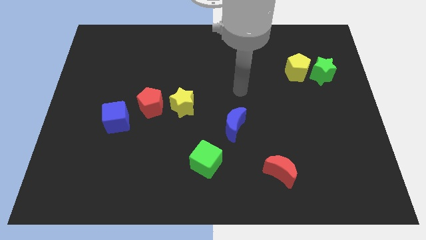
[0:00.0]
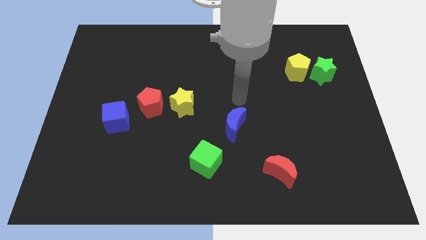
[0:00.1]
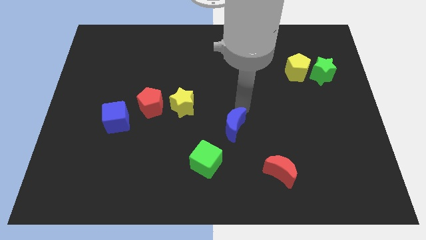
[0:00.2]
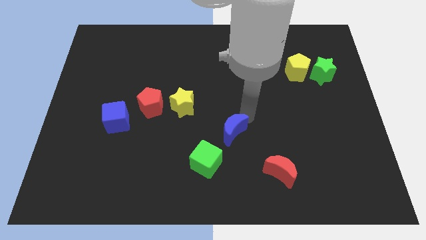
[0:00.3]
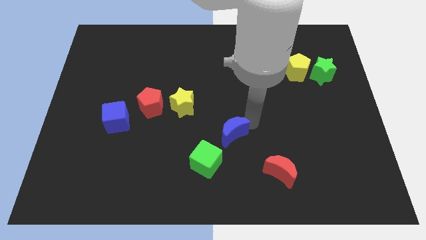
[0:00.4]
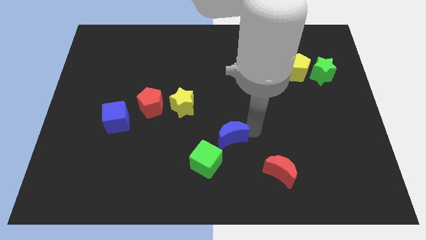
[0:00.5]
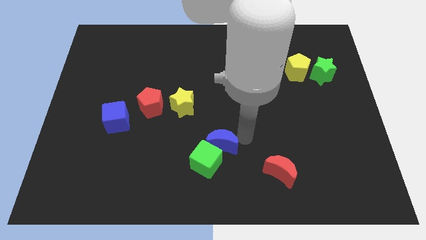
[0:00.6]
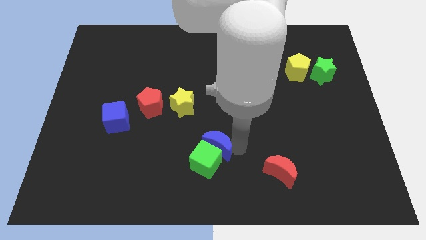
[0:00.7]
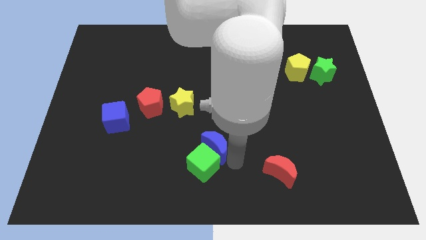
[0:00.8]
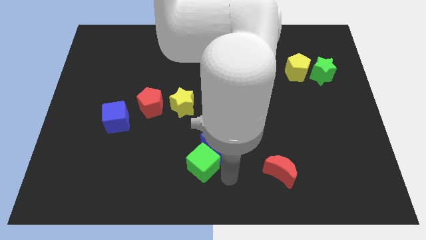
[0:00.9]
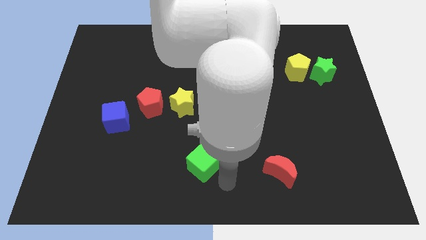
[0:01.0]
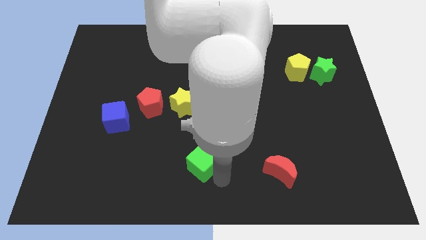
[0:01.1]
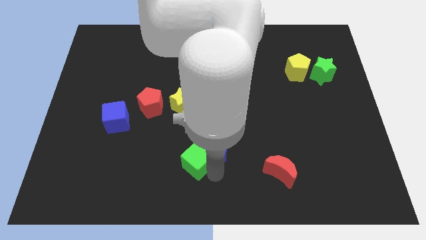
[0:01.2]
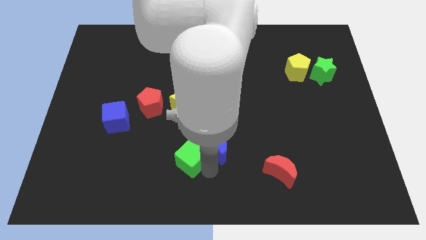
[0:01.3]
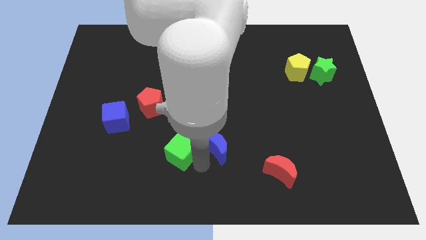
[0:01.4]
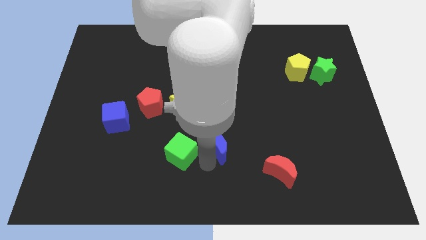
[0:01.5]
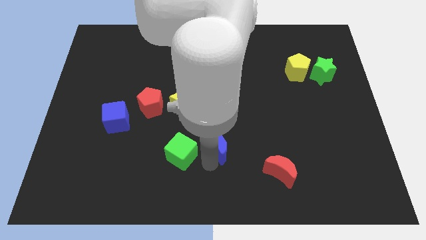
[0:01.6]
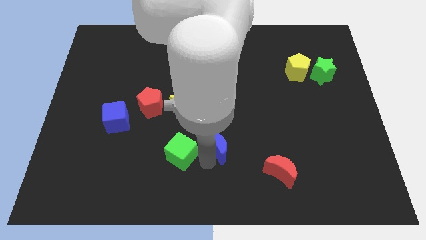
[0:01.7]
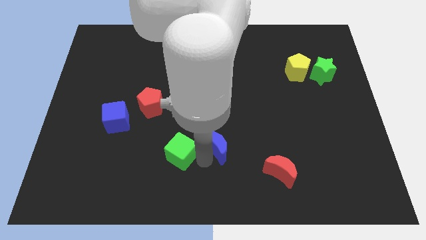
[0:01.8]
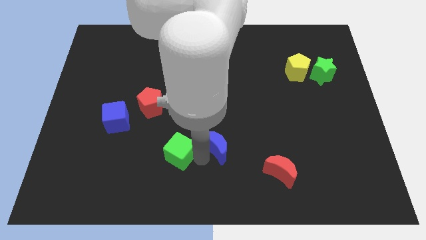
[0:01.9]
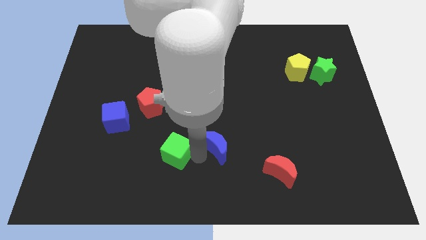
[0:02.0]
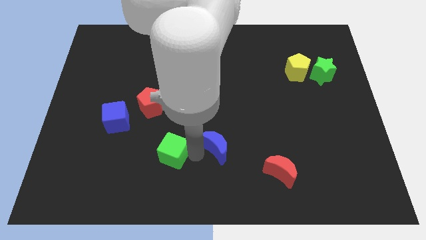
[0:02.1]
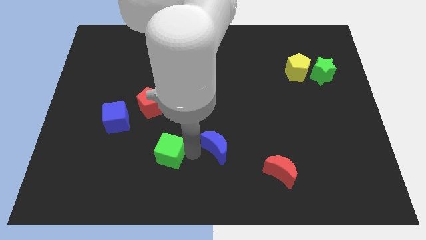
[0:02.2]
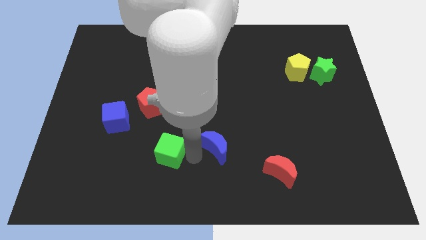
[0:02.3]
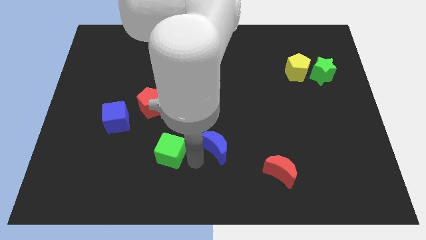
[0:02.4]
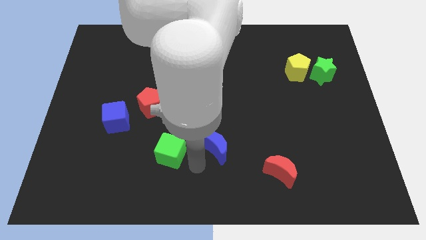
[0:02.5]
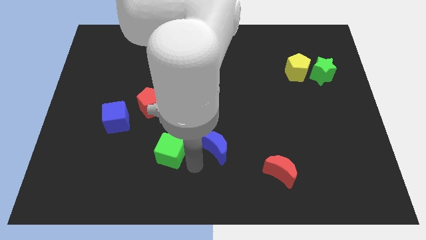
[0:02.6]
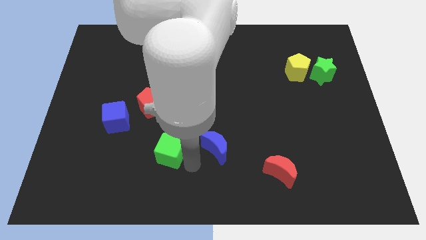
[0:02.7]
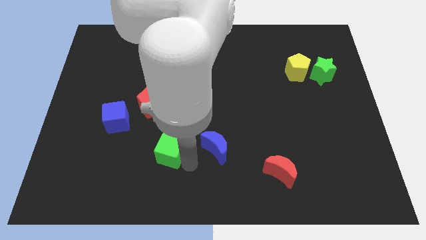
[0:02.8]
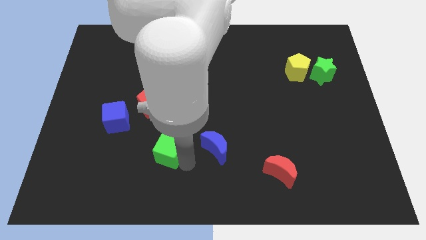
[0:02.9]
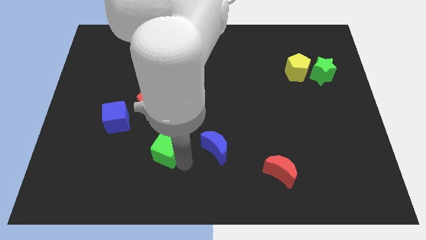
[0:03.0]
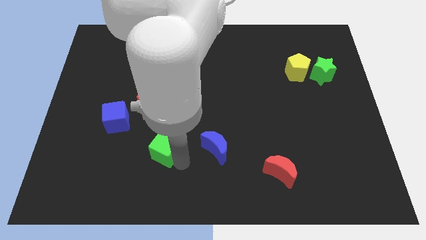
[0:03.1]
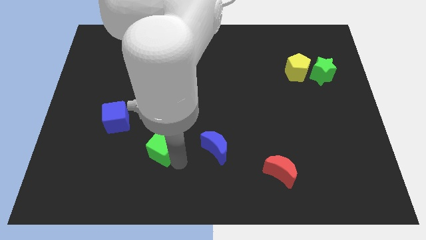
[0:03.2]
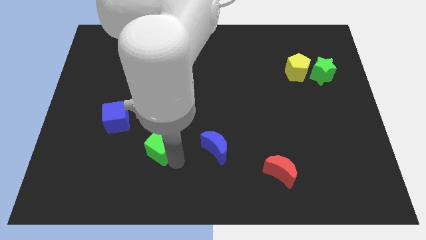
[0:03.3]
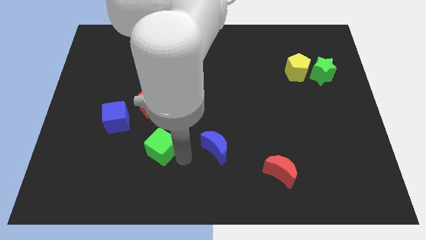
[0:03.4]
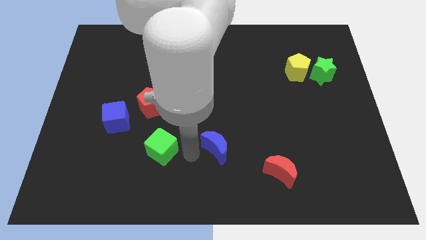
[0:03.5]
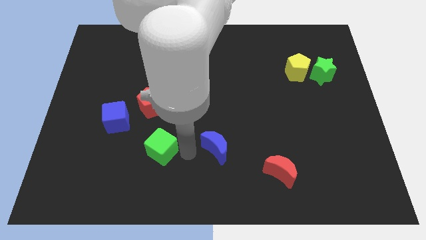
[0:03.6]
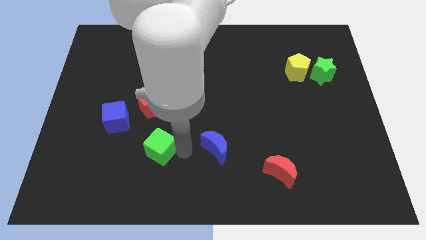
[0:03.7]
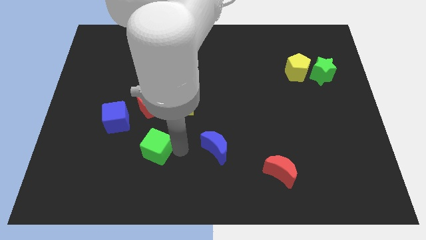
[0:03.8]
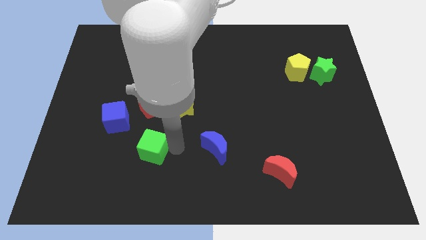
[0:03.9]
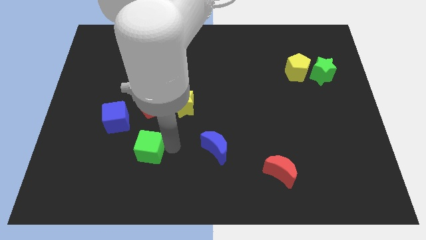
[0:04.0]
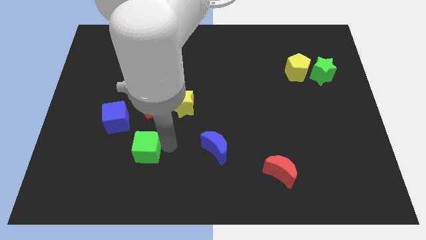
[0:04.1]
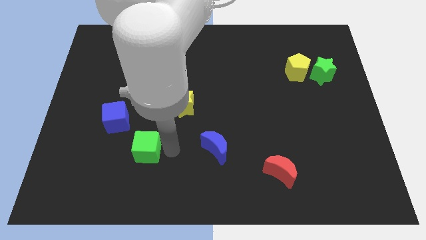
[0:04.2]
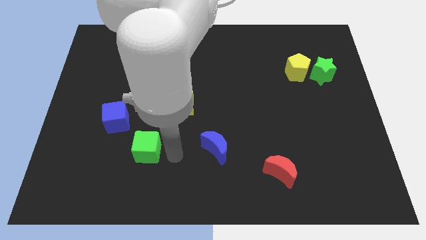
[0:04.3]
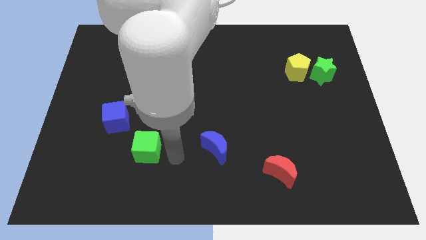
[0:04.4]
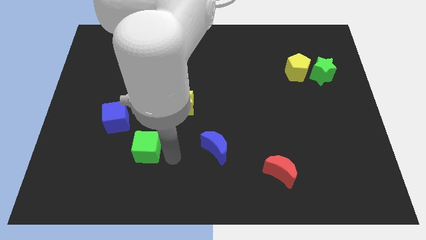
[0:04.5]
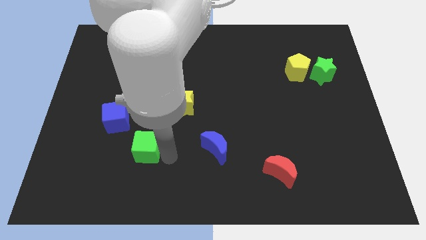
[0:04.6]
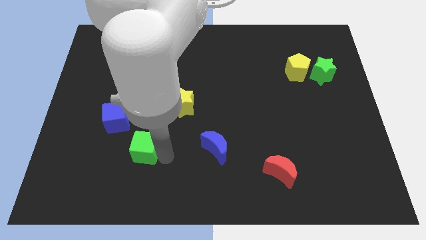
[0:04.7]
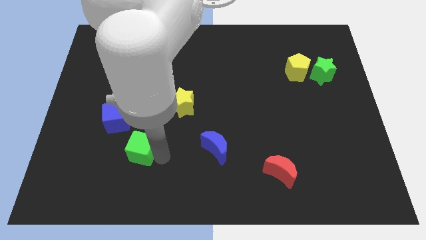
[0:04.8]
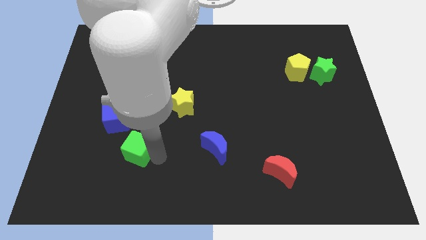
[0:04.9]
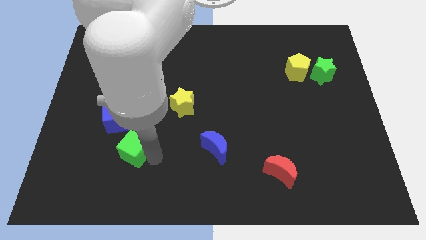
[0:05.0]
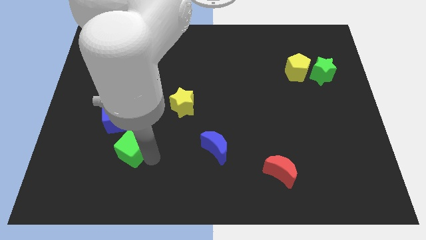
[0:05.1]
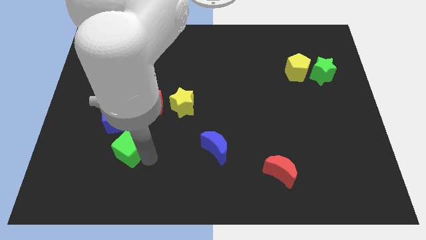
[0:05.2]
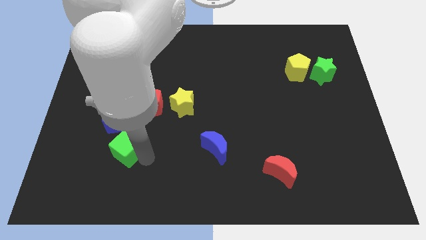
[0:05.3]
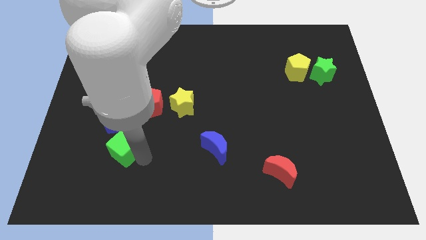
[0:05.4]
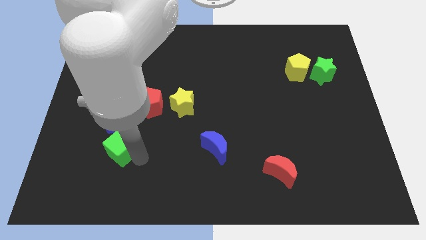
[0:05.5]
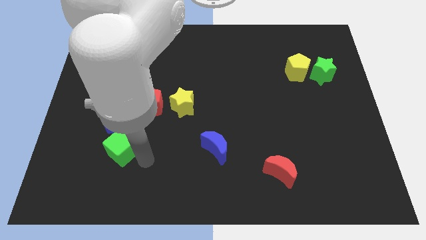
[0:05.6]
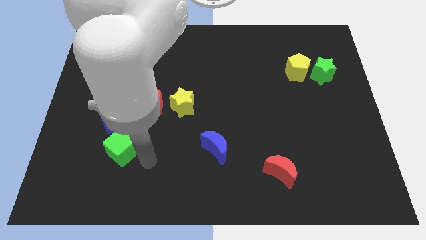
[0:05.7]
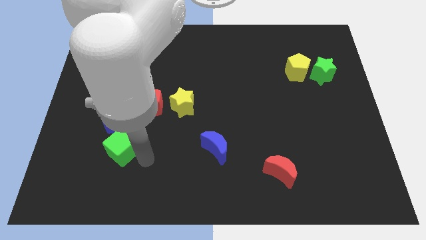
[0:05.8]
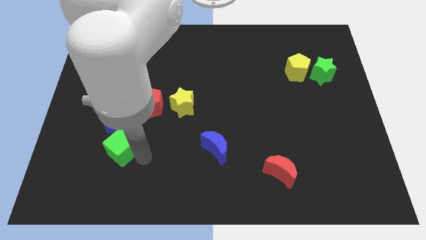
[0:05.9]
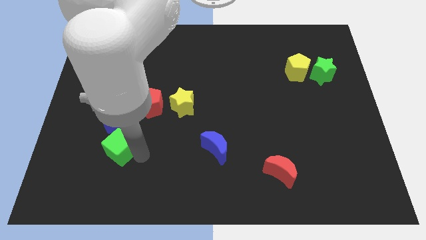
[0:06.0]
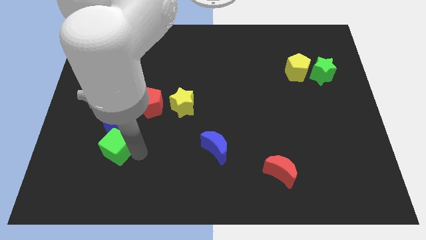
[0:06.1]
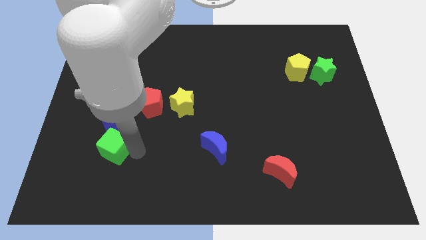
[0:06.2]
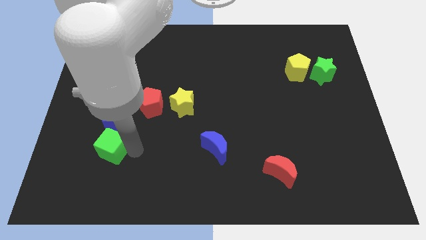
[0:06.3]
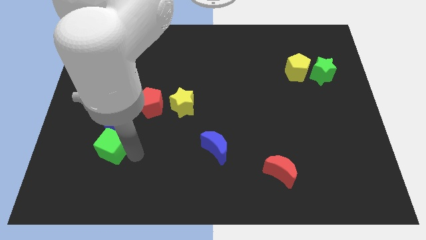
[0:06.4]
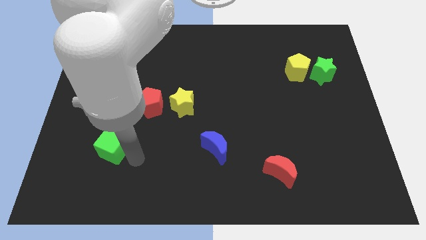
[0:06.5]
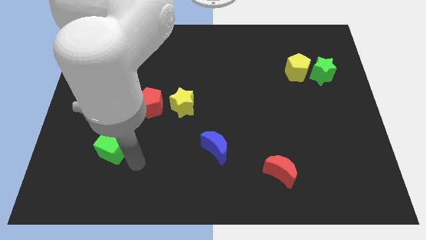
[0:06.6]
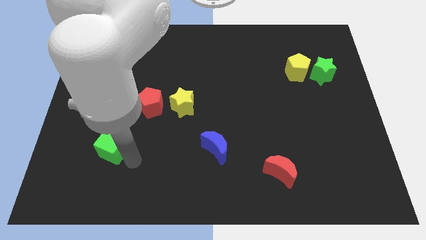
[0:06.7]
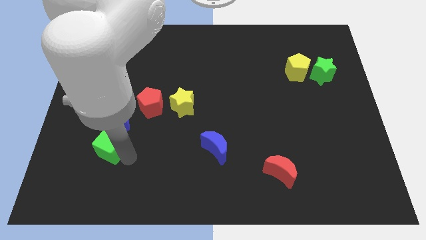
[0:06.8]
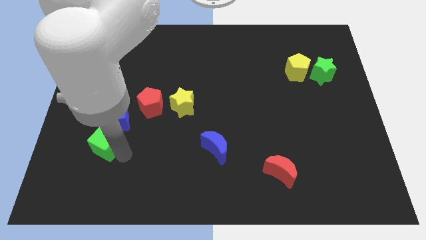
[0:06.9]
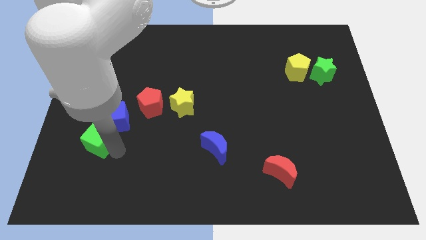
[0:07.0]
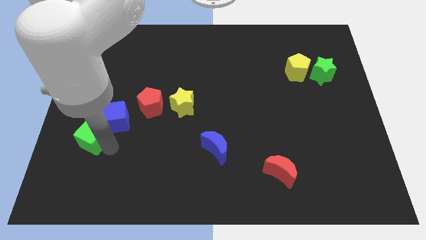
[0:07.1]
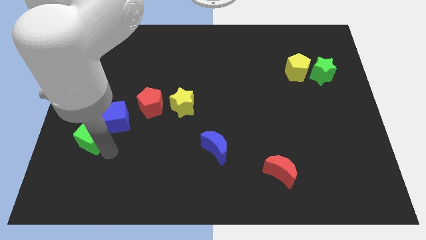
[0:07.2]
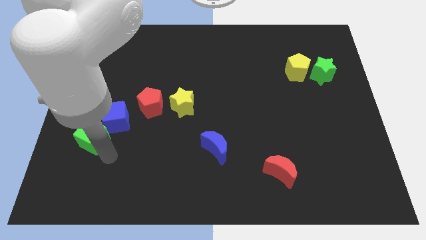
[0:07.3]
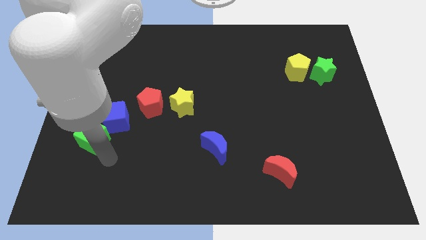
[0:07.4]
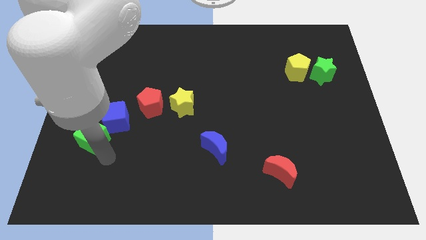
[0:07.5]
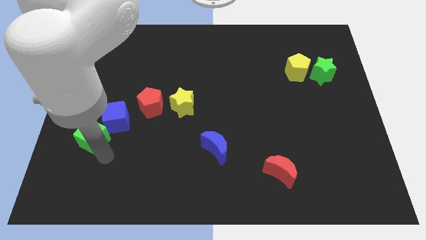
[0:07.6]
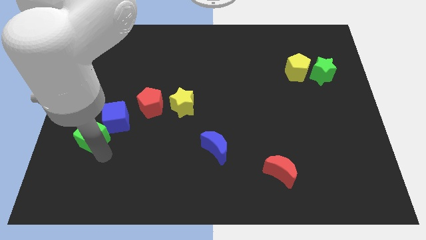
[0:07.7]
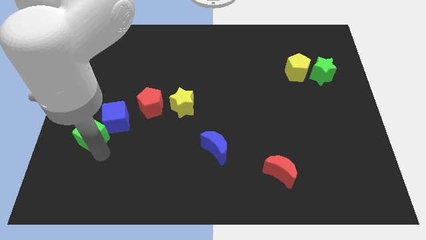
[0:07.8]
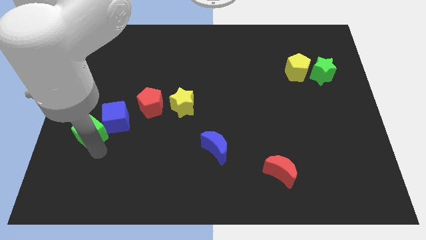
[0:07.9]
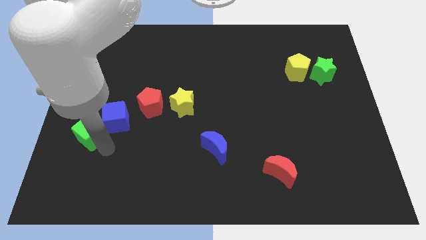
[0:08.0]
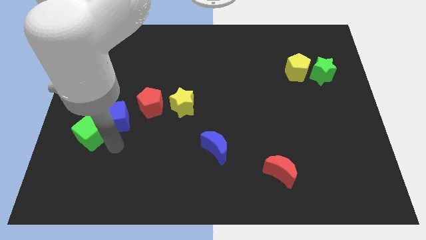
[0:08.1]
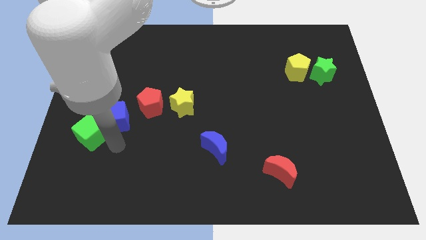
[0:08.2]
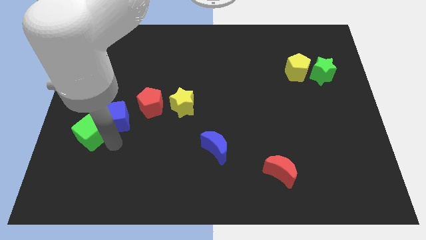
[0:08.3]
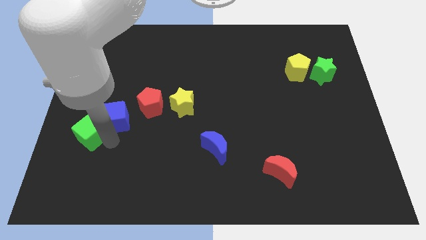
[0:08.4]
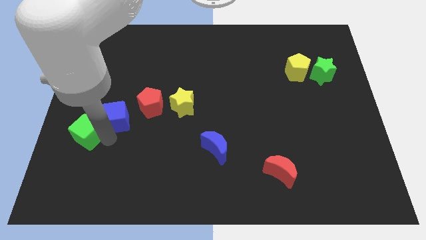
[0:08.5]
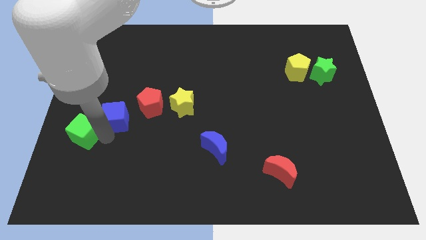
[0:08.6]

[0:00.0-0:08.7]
move the green cube to the center left
